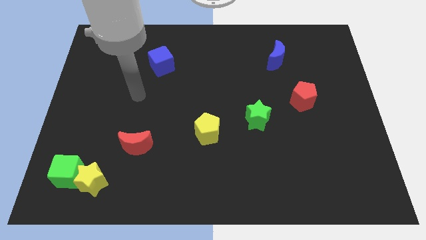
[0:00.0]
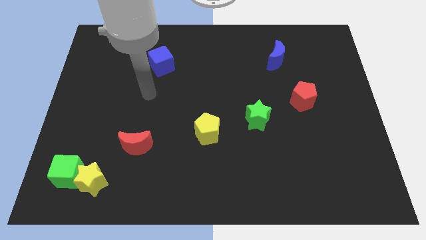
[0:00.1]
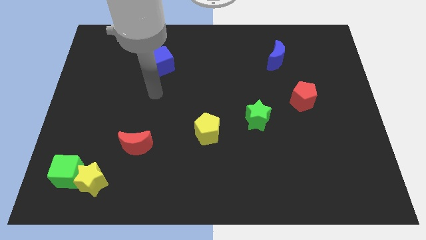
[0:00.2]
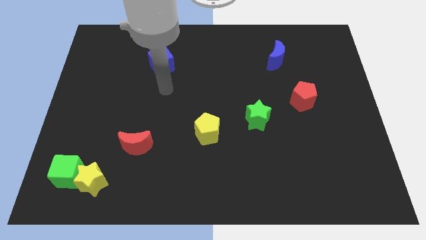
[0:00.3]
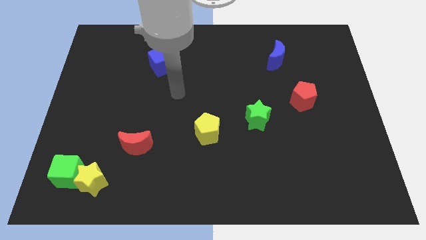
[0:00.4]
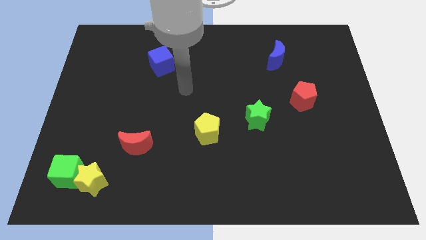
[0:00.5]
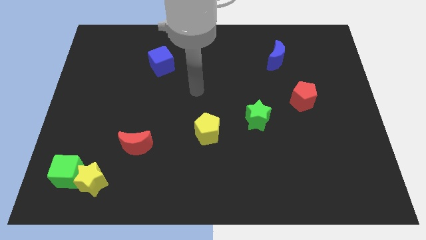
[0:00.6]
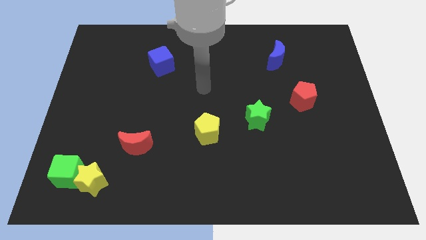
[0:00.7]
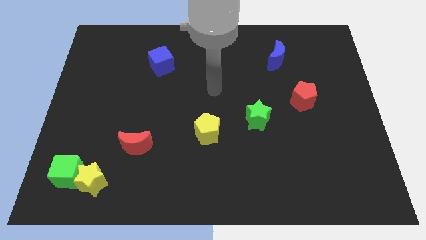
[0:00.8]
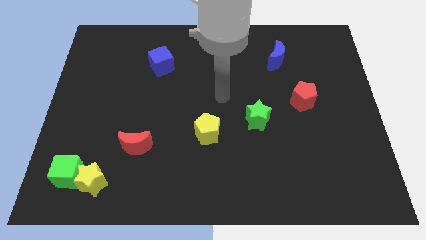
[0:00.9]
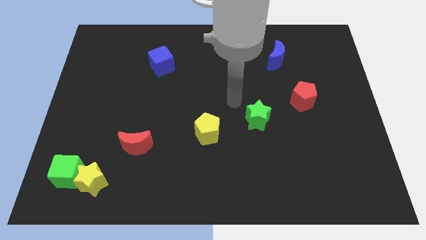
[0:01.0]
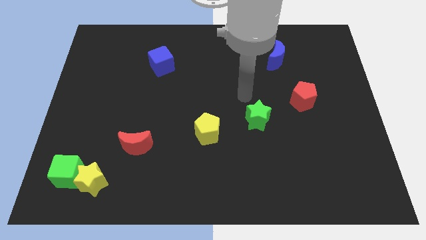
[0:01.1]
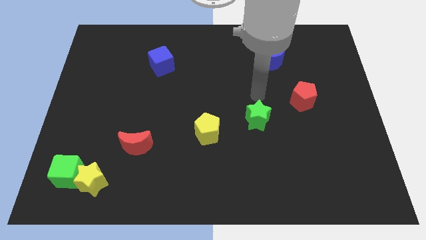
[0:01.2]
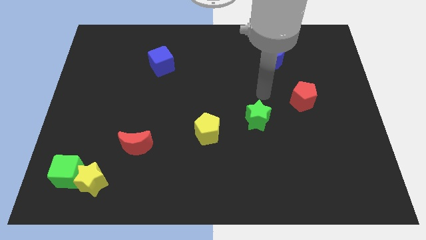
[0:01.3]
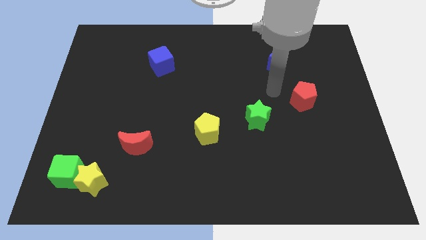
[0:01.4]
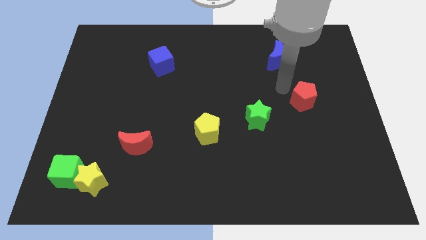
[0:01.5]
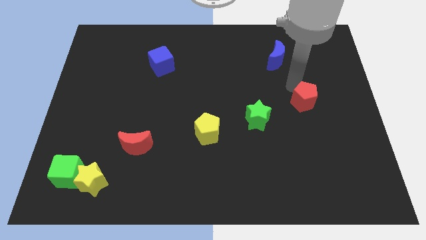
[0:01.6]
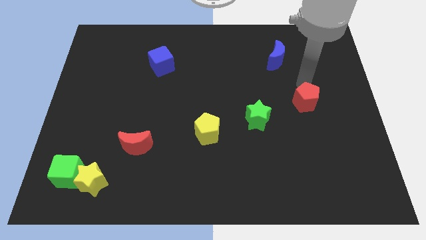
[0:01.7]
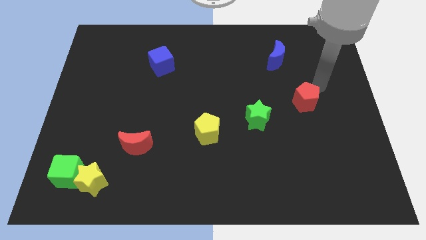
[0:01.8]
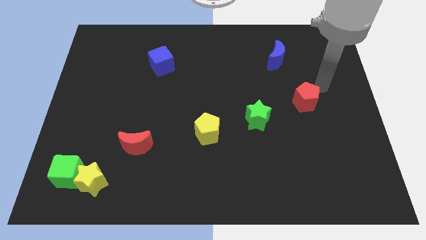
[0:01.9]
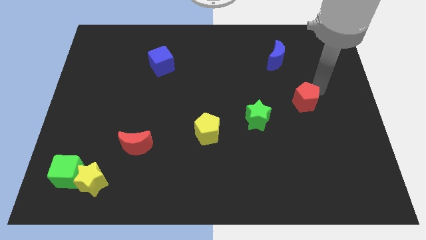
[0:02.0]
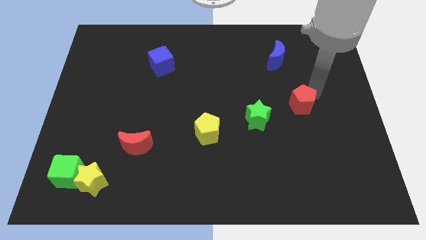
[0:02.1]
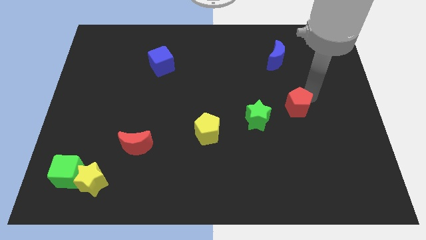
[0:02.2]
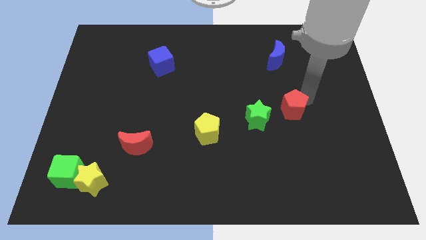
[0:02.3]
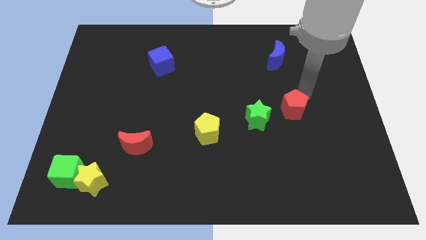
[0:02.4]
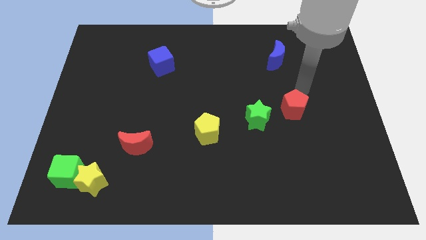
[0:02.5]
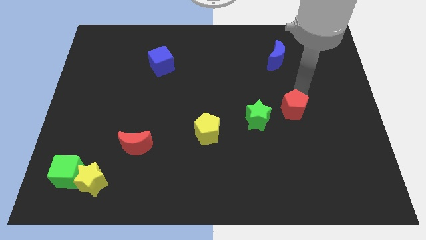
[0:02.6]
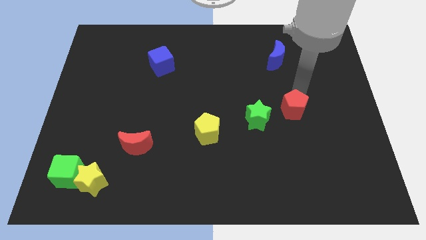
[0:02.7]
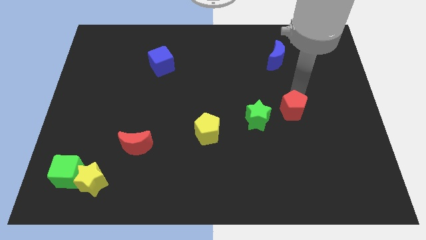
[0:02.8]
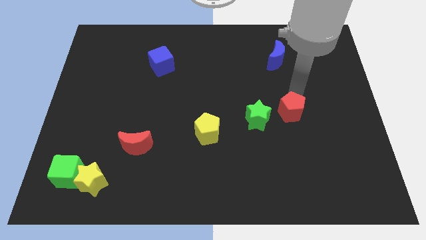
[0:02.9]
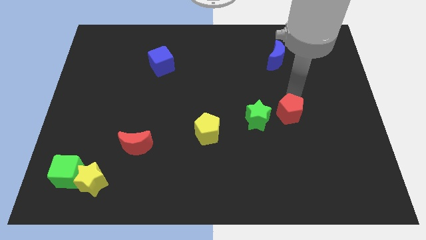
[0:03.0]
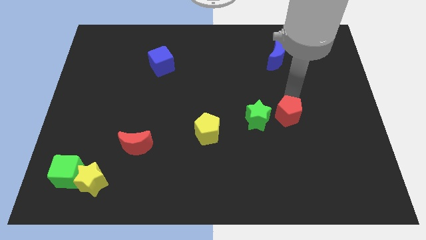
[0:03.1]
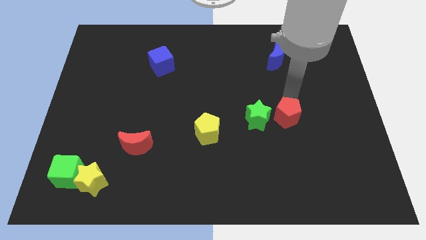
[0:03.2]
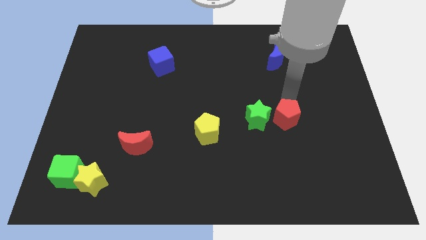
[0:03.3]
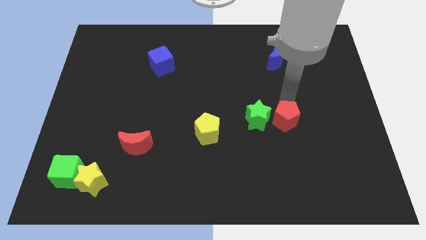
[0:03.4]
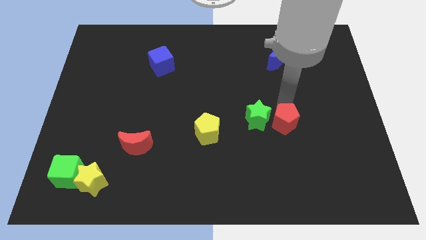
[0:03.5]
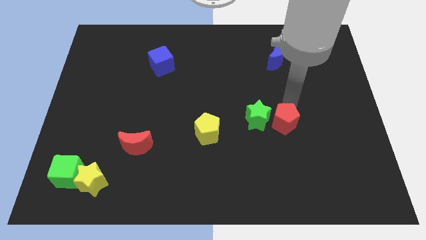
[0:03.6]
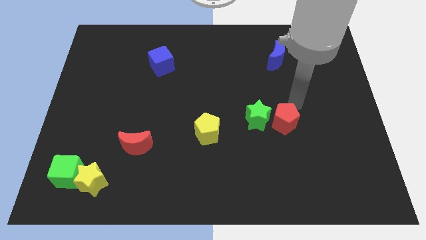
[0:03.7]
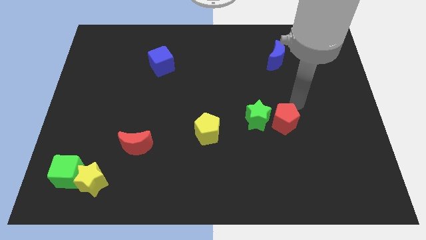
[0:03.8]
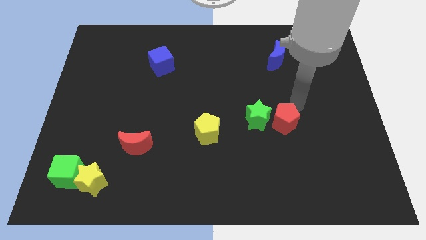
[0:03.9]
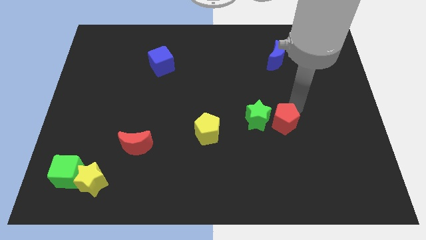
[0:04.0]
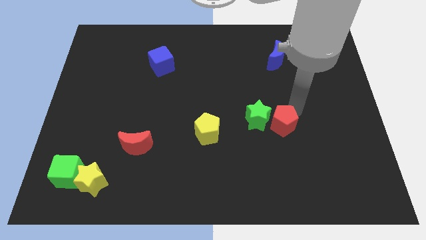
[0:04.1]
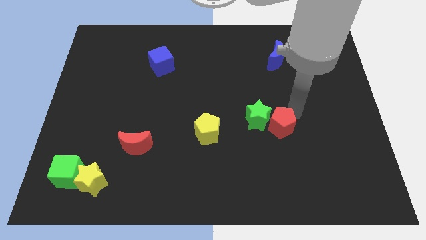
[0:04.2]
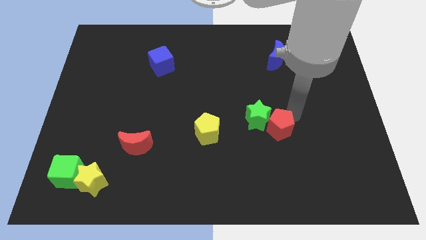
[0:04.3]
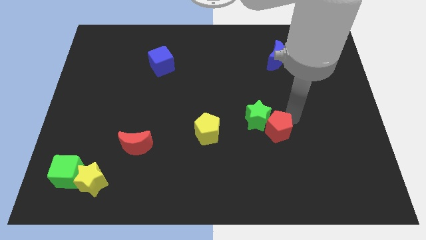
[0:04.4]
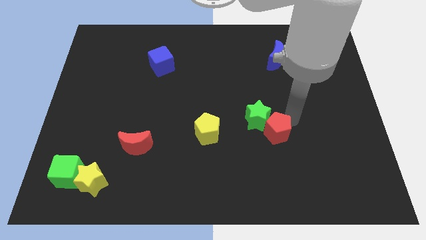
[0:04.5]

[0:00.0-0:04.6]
push the red pentagon below the green star

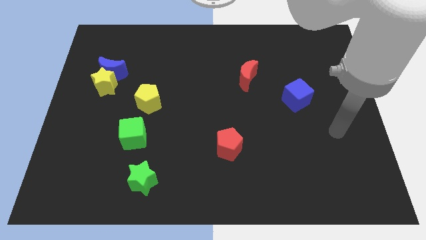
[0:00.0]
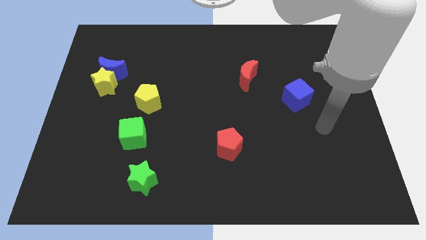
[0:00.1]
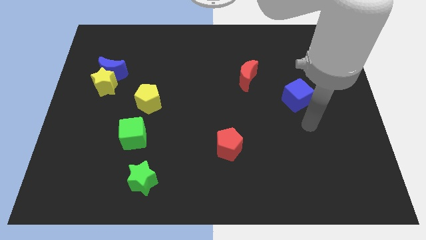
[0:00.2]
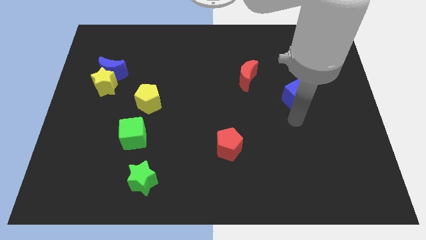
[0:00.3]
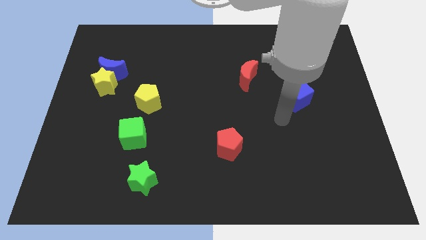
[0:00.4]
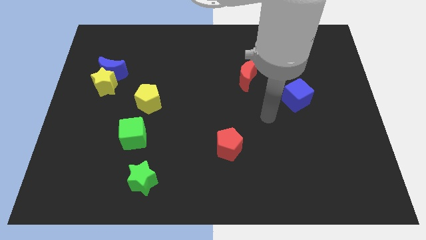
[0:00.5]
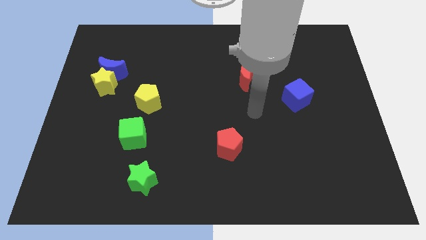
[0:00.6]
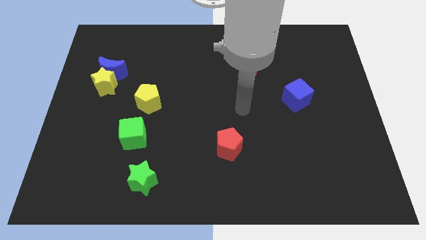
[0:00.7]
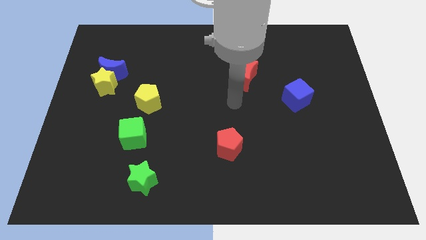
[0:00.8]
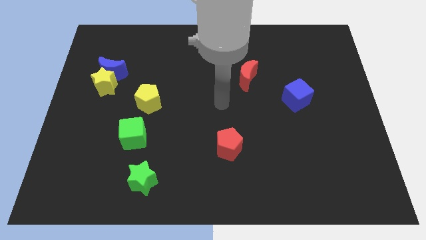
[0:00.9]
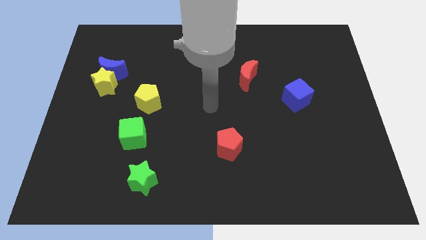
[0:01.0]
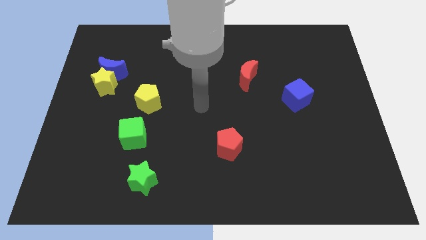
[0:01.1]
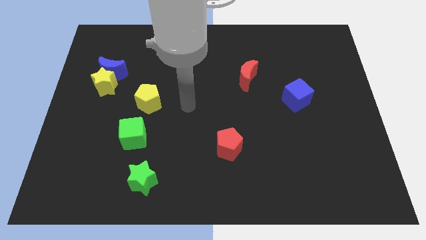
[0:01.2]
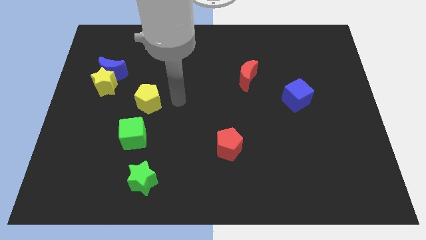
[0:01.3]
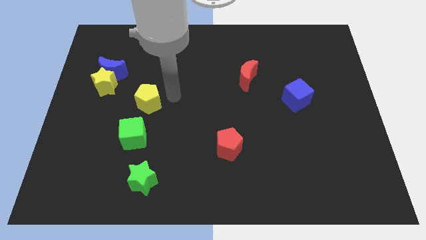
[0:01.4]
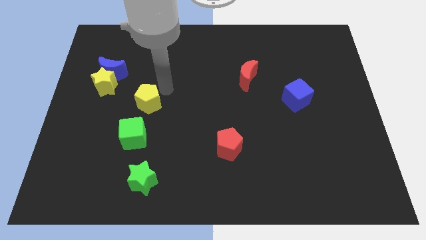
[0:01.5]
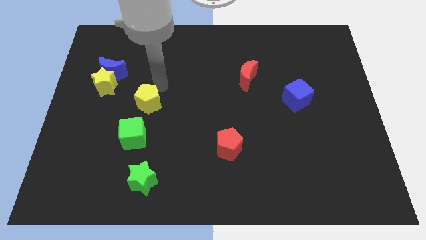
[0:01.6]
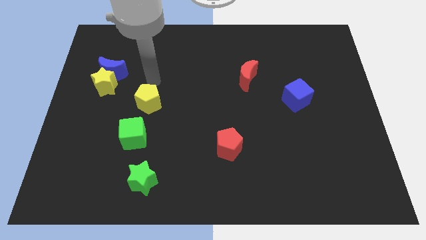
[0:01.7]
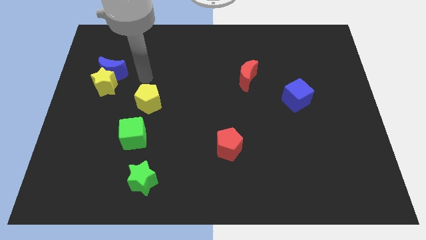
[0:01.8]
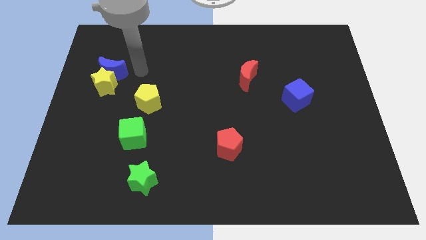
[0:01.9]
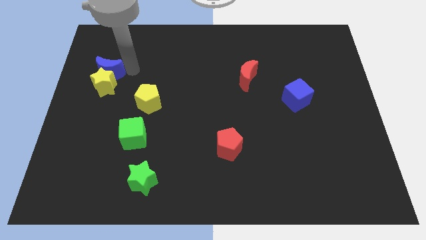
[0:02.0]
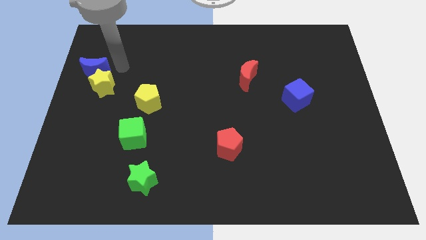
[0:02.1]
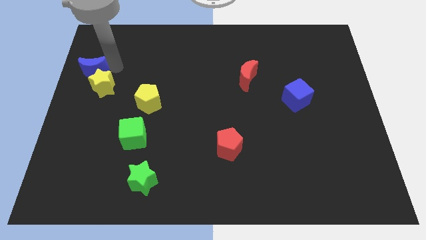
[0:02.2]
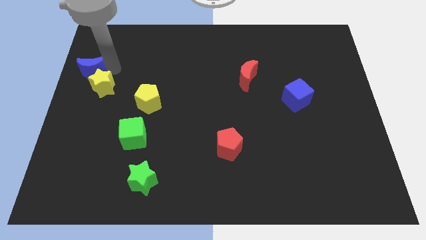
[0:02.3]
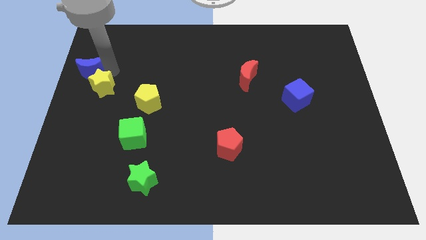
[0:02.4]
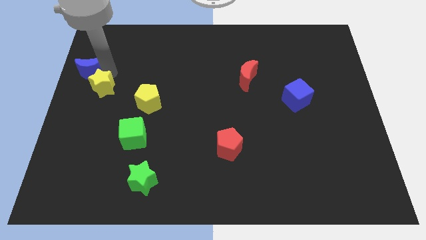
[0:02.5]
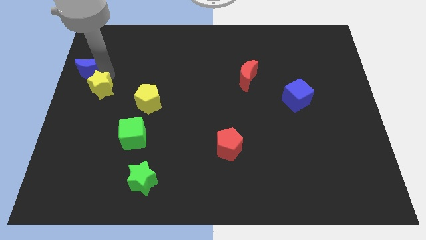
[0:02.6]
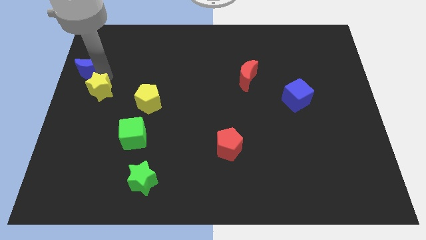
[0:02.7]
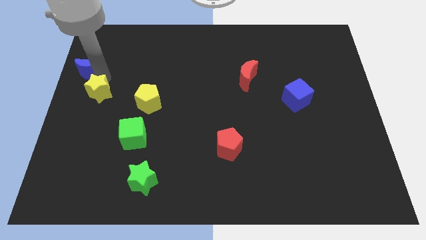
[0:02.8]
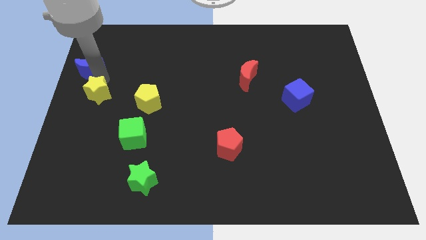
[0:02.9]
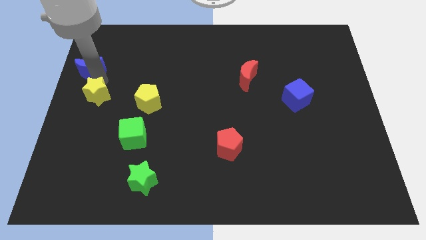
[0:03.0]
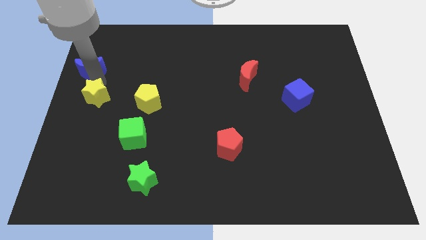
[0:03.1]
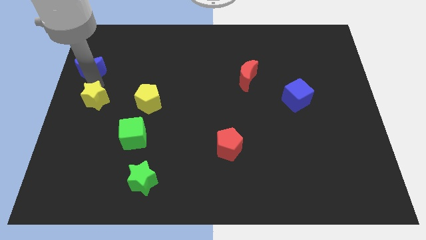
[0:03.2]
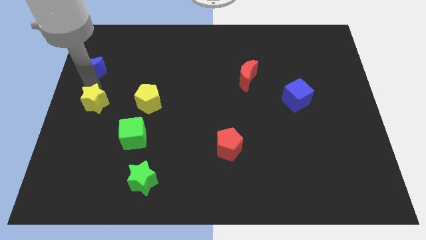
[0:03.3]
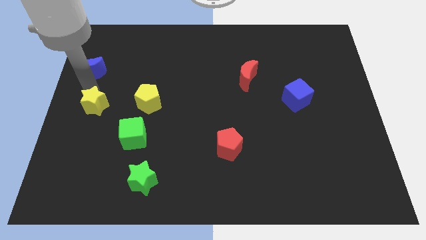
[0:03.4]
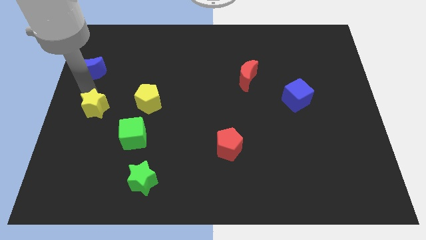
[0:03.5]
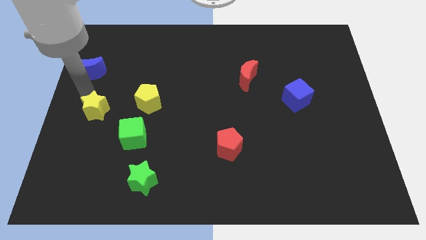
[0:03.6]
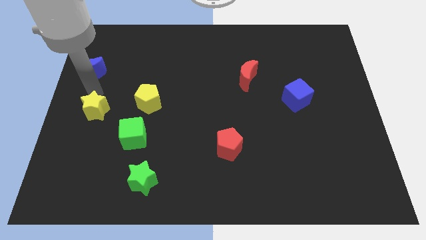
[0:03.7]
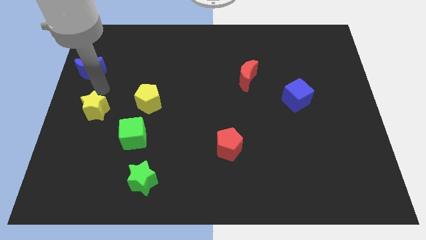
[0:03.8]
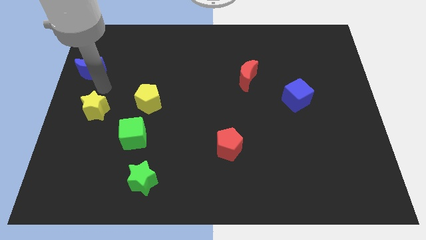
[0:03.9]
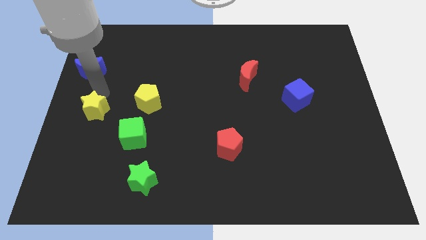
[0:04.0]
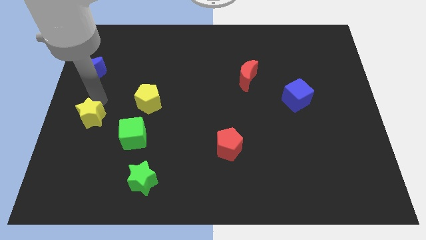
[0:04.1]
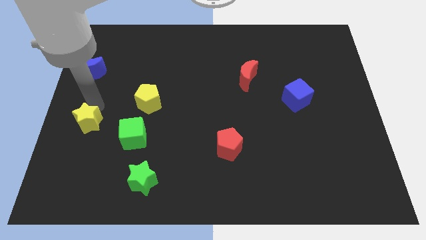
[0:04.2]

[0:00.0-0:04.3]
move the yellow star just left of the green cube
